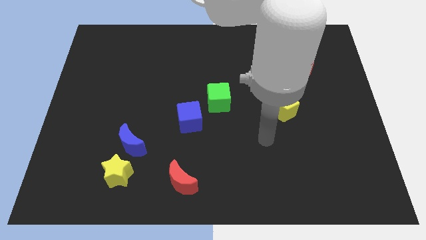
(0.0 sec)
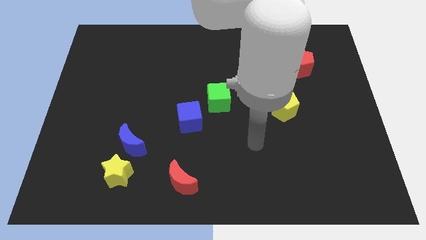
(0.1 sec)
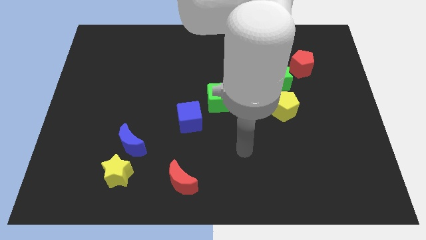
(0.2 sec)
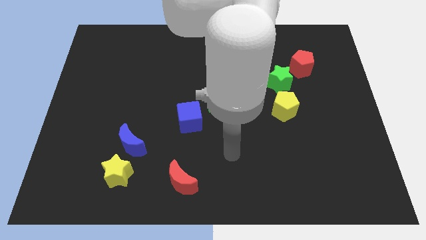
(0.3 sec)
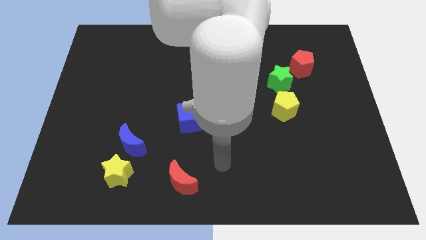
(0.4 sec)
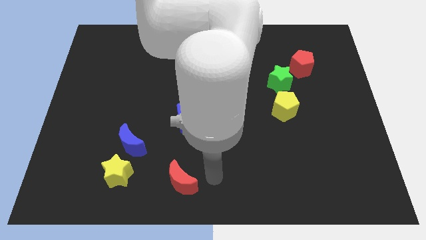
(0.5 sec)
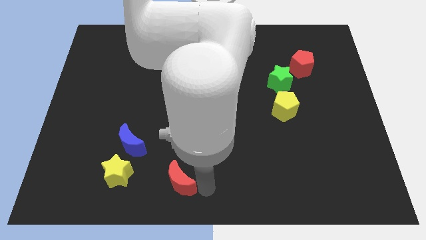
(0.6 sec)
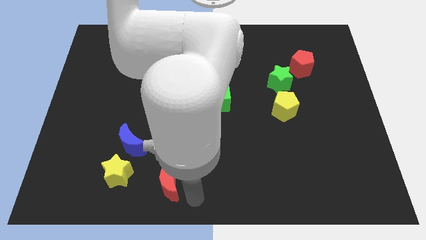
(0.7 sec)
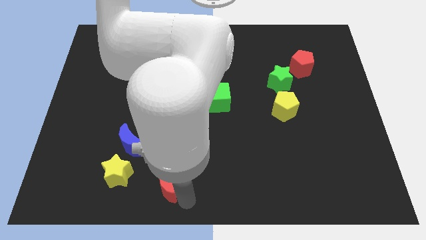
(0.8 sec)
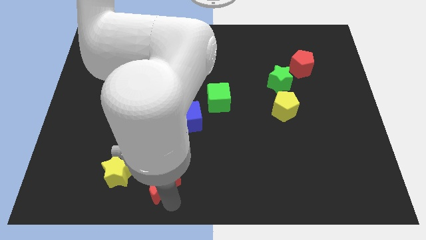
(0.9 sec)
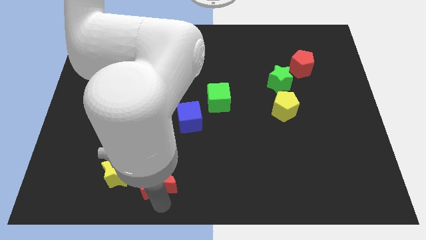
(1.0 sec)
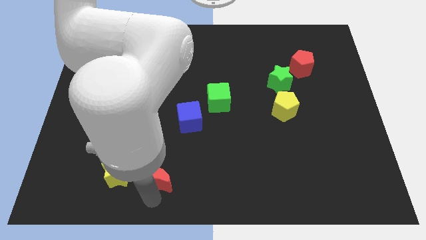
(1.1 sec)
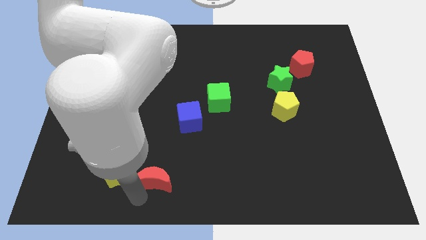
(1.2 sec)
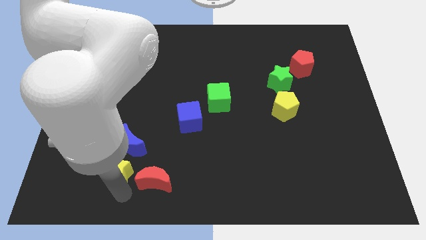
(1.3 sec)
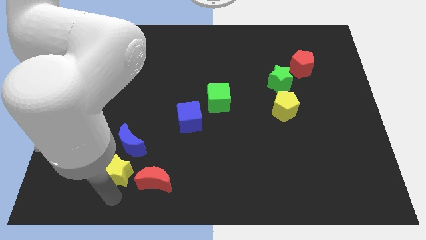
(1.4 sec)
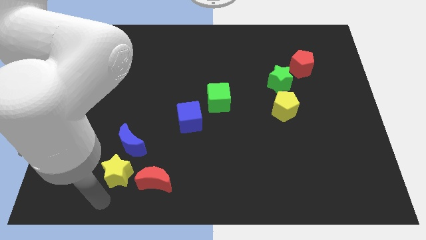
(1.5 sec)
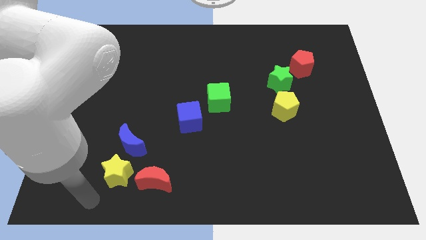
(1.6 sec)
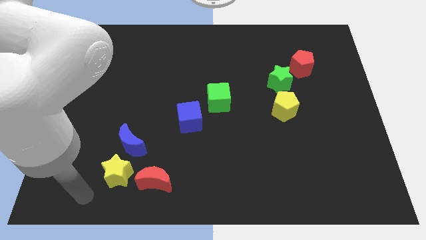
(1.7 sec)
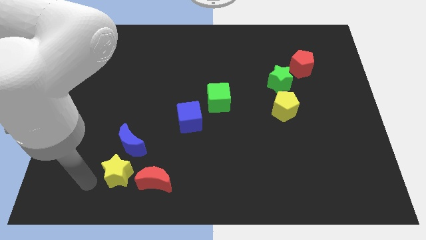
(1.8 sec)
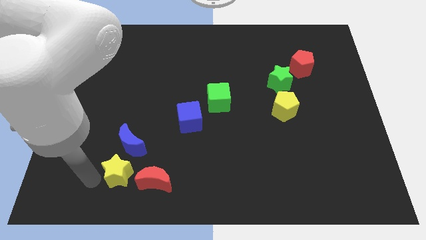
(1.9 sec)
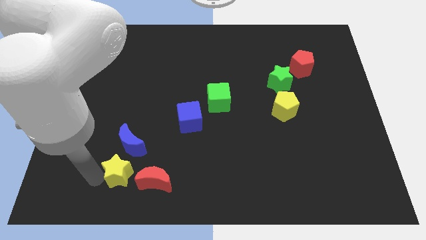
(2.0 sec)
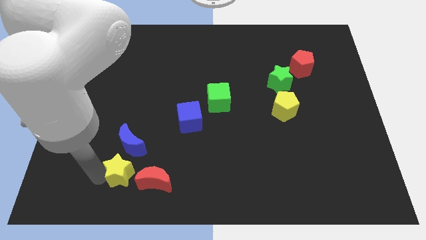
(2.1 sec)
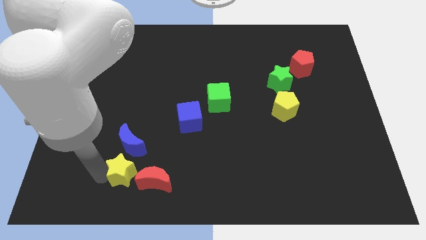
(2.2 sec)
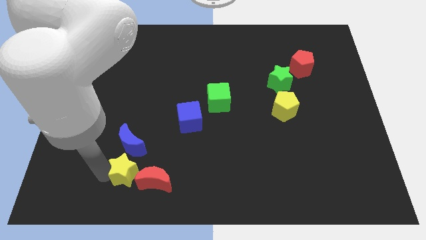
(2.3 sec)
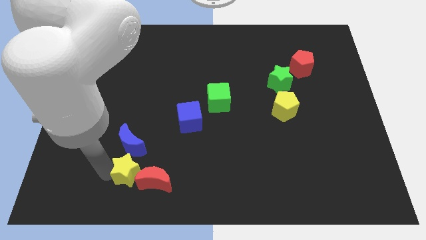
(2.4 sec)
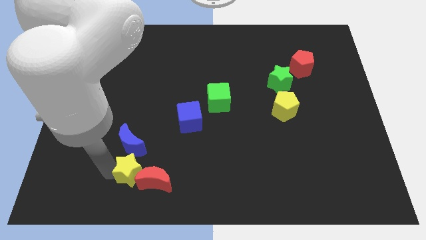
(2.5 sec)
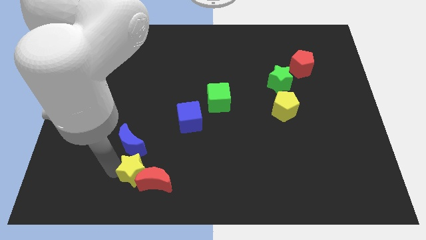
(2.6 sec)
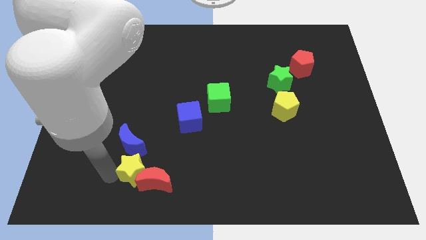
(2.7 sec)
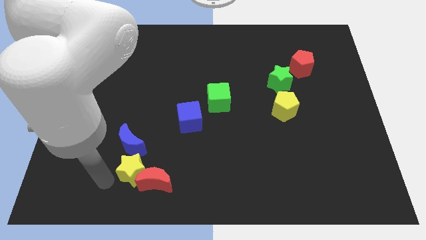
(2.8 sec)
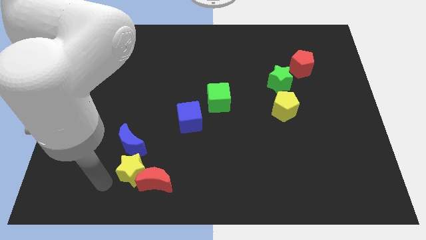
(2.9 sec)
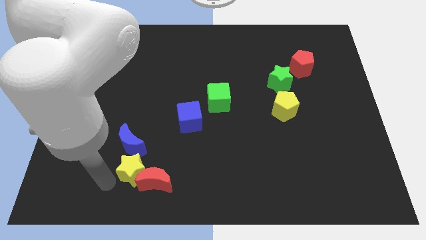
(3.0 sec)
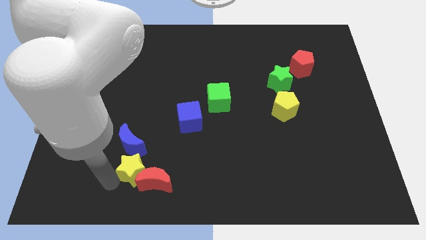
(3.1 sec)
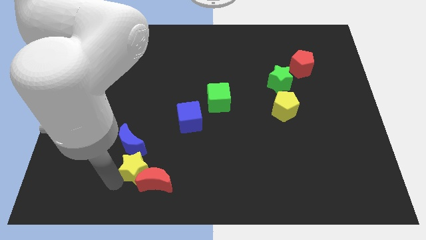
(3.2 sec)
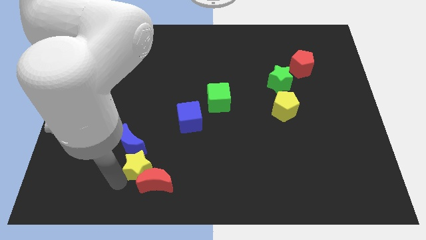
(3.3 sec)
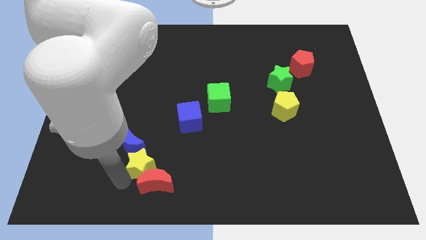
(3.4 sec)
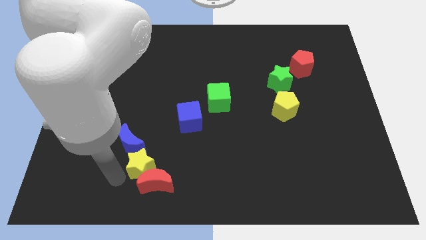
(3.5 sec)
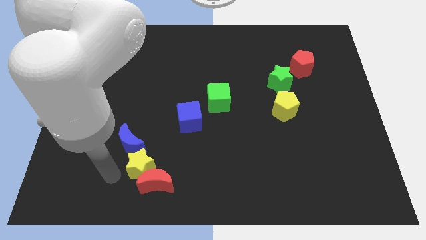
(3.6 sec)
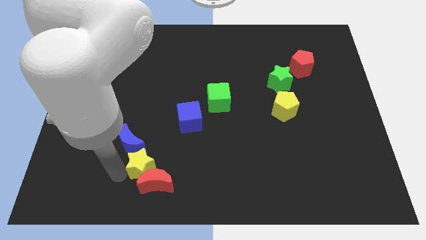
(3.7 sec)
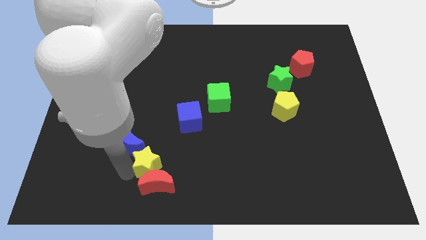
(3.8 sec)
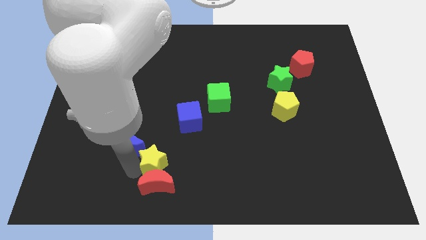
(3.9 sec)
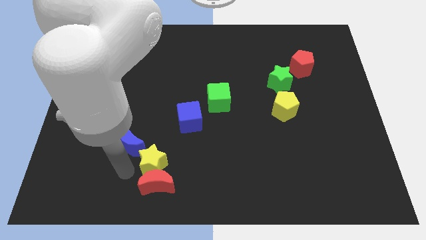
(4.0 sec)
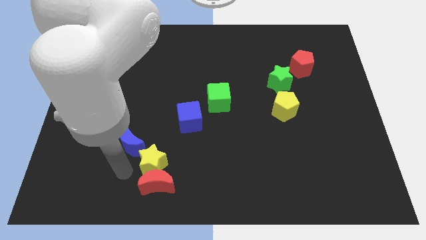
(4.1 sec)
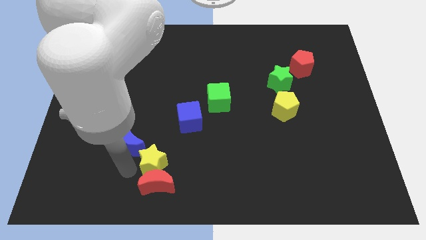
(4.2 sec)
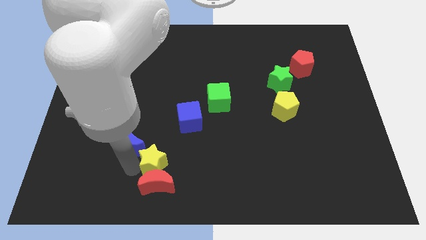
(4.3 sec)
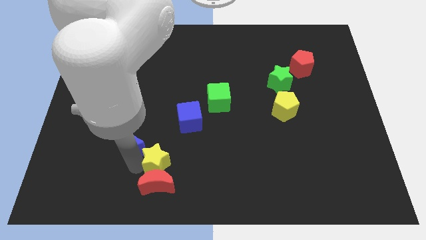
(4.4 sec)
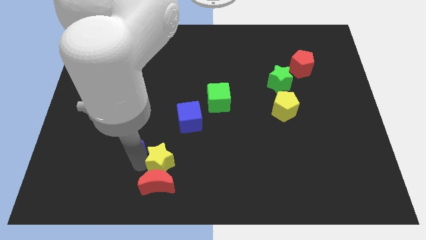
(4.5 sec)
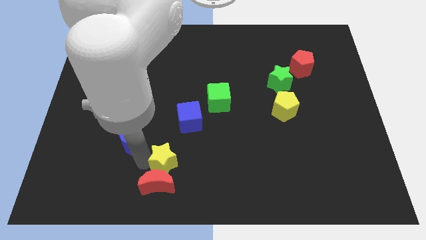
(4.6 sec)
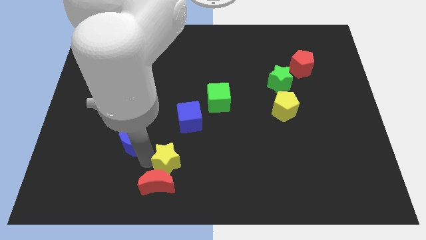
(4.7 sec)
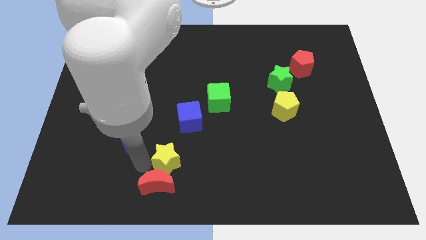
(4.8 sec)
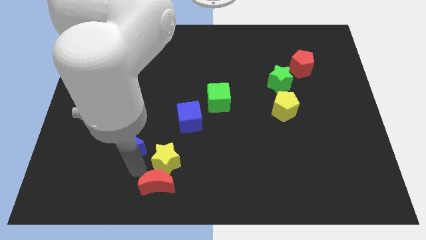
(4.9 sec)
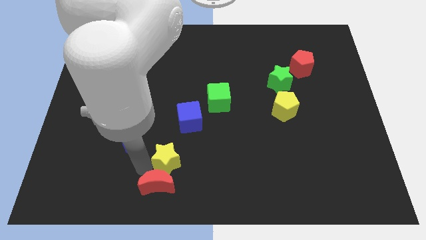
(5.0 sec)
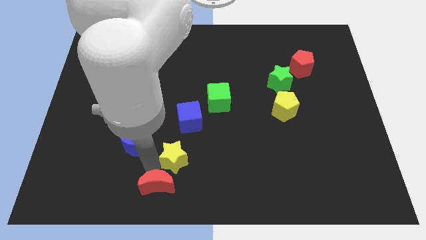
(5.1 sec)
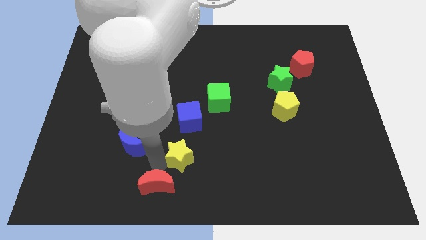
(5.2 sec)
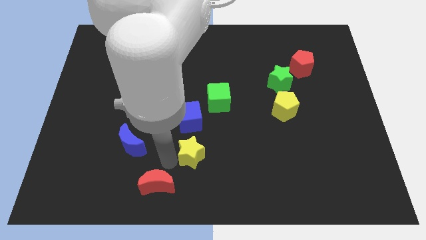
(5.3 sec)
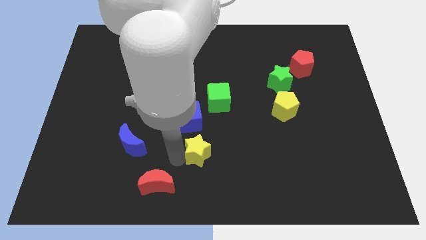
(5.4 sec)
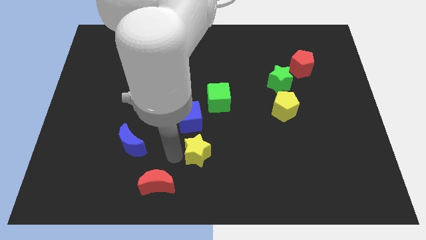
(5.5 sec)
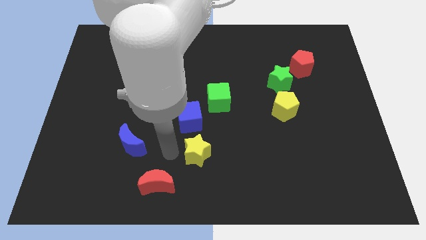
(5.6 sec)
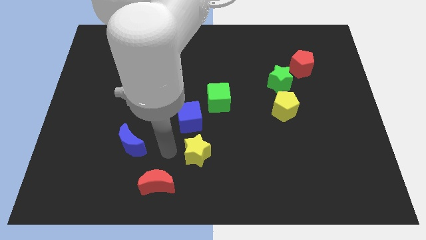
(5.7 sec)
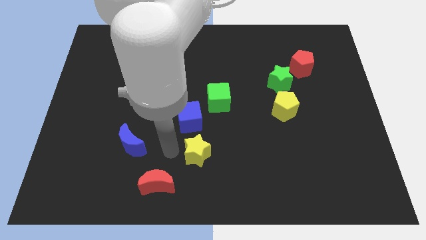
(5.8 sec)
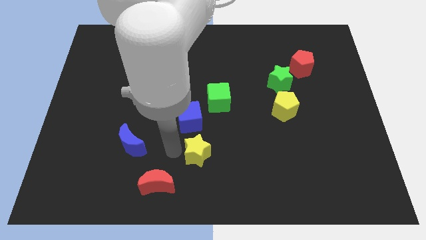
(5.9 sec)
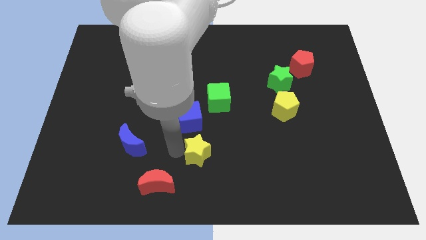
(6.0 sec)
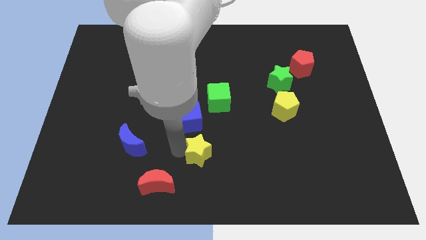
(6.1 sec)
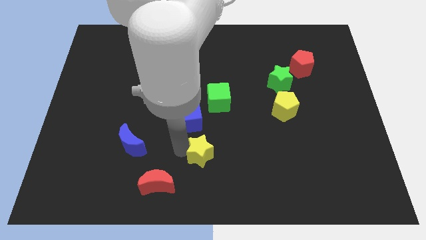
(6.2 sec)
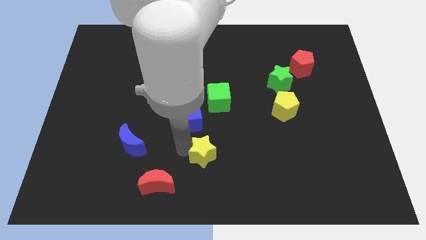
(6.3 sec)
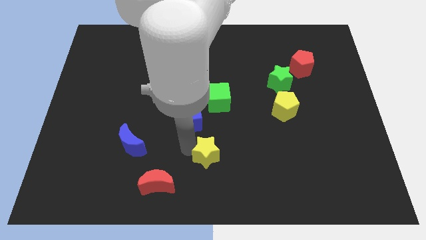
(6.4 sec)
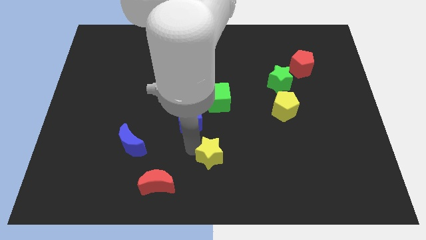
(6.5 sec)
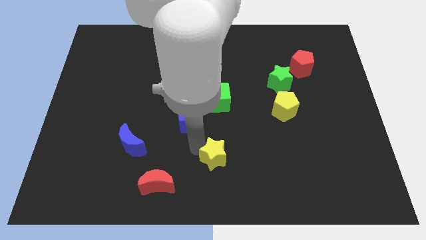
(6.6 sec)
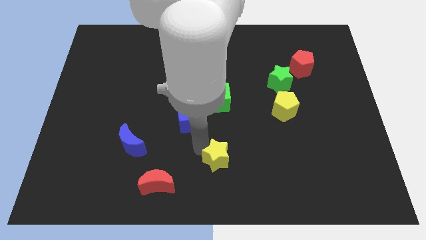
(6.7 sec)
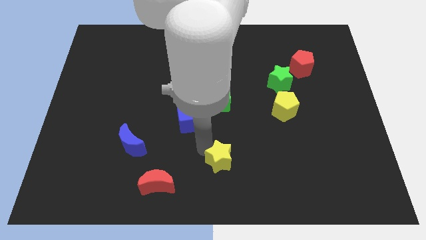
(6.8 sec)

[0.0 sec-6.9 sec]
move the yellow star right

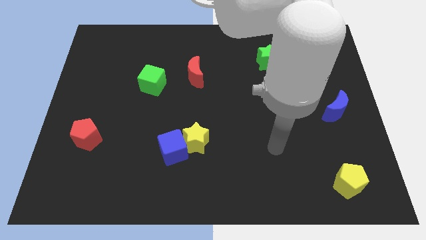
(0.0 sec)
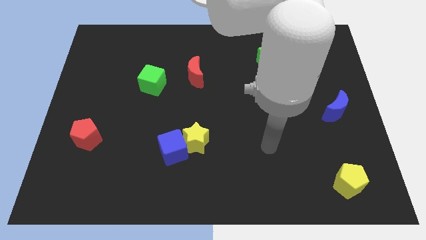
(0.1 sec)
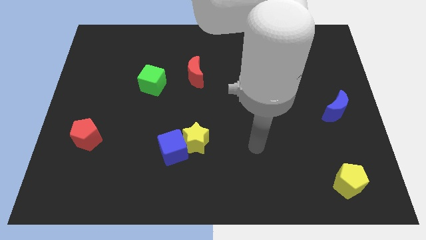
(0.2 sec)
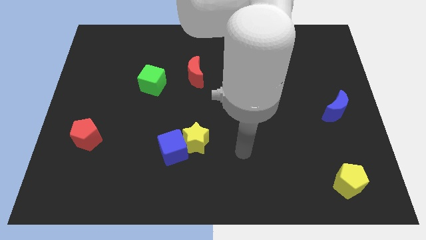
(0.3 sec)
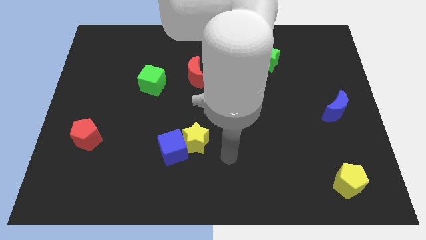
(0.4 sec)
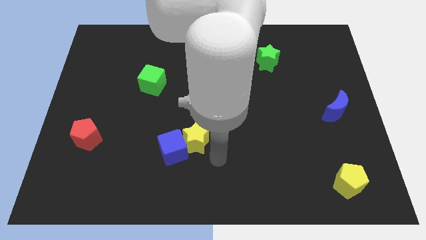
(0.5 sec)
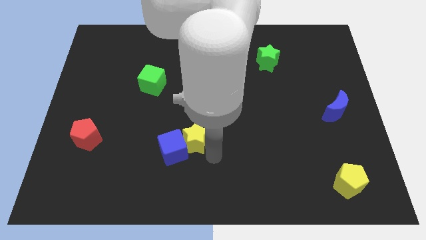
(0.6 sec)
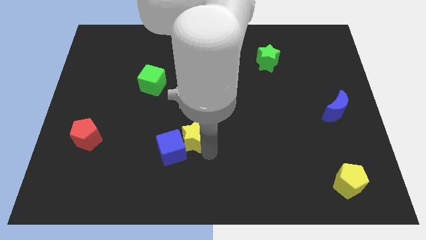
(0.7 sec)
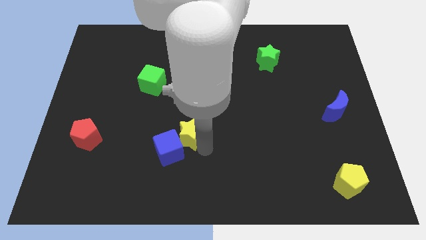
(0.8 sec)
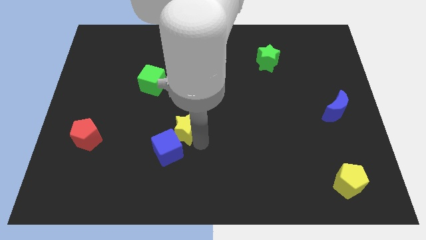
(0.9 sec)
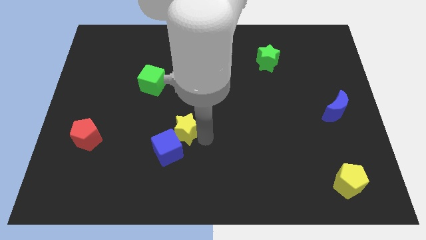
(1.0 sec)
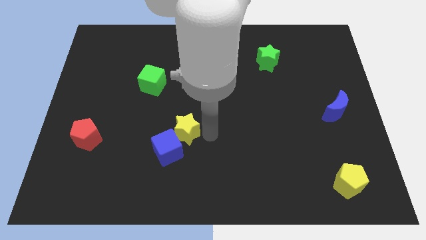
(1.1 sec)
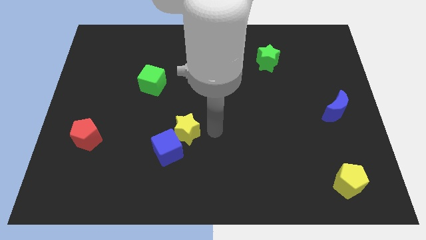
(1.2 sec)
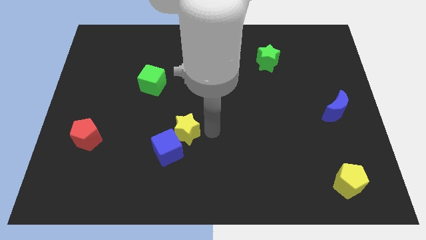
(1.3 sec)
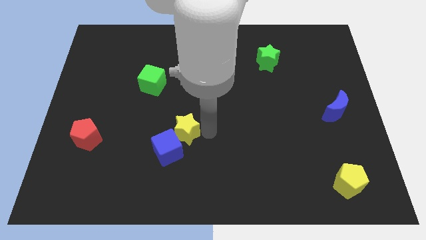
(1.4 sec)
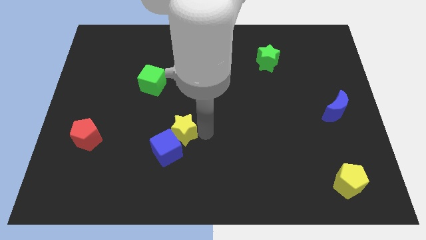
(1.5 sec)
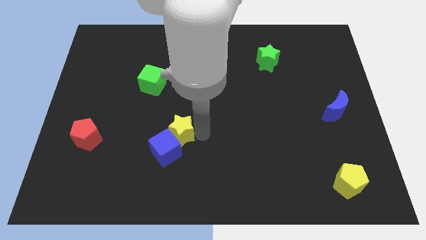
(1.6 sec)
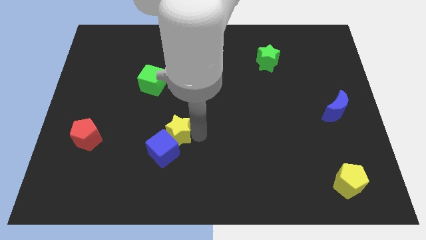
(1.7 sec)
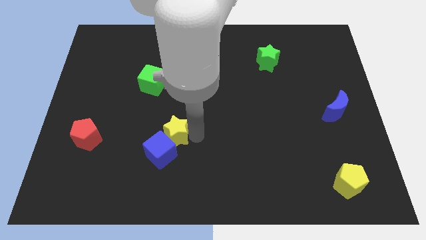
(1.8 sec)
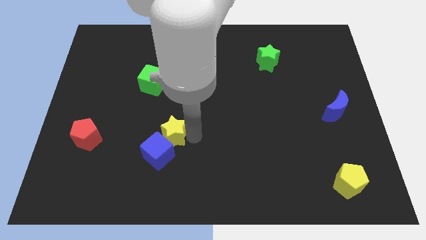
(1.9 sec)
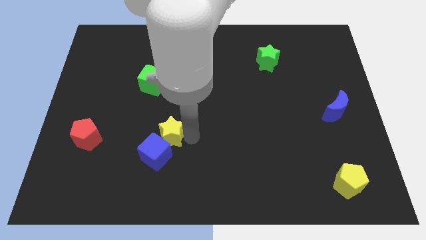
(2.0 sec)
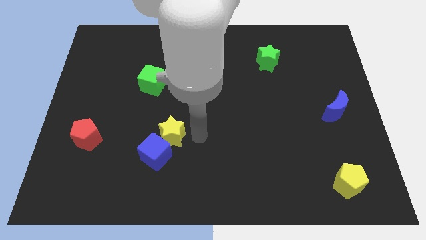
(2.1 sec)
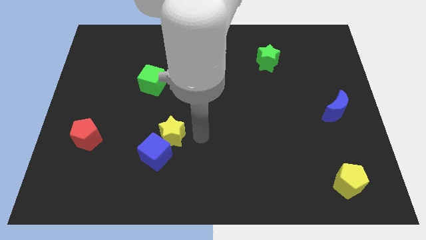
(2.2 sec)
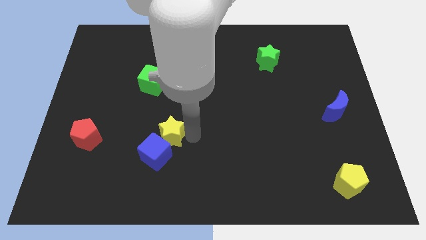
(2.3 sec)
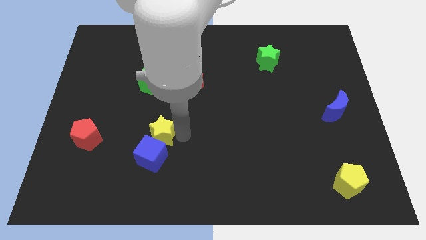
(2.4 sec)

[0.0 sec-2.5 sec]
slightly slide the yellow star left
